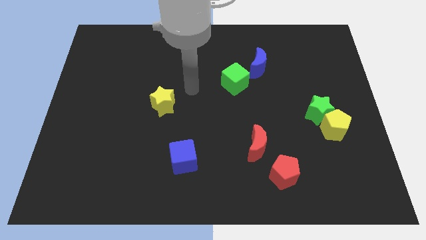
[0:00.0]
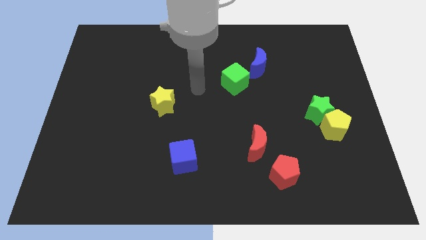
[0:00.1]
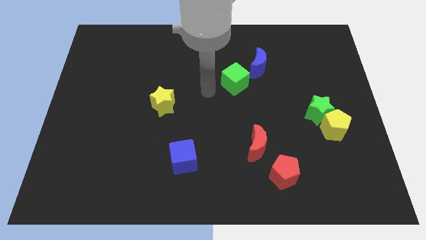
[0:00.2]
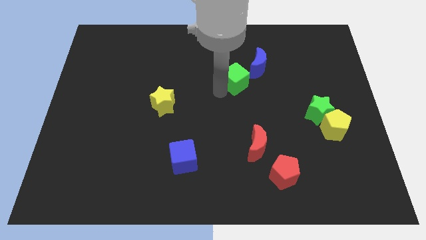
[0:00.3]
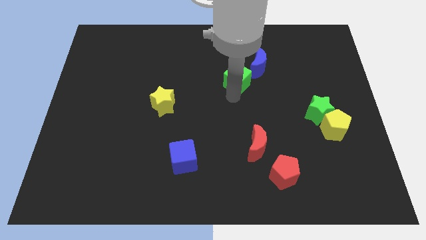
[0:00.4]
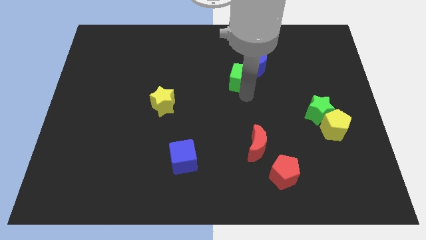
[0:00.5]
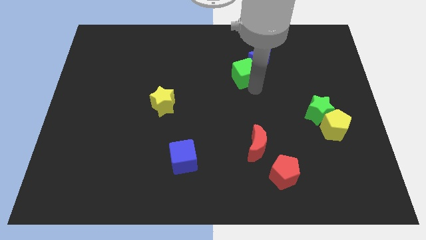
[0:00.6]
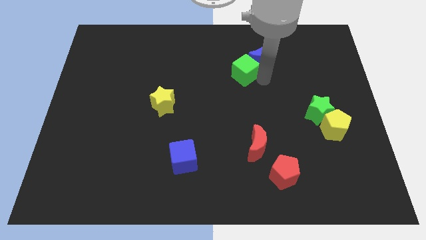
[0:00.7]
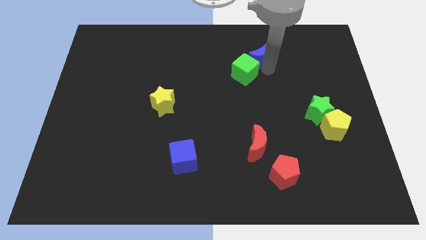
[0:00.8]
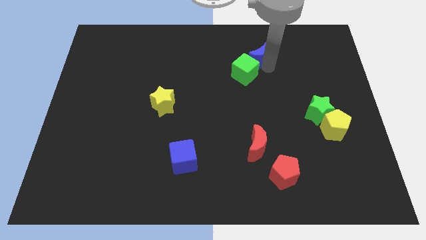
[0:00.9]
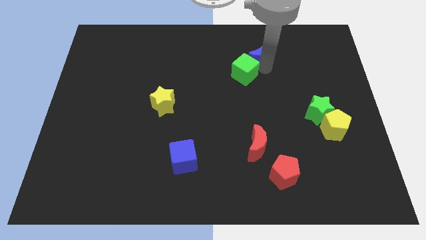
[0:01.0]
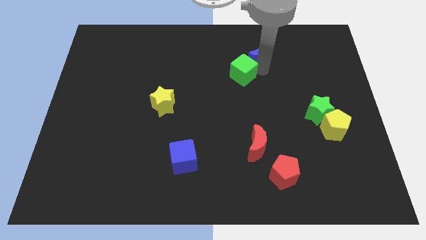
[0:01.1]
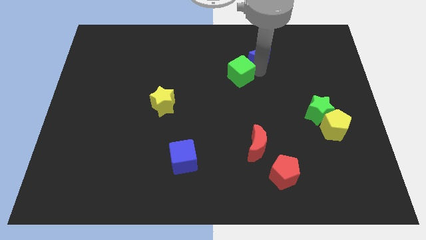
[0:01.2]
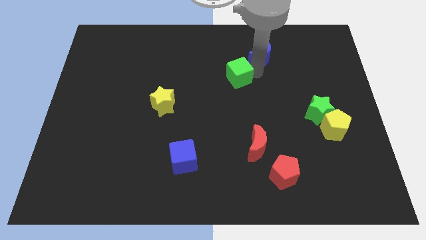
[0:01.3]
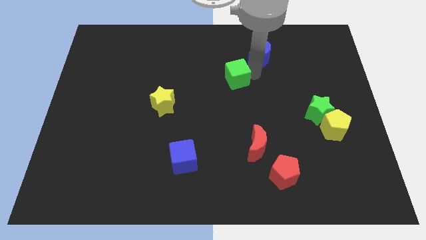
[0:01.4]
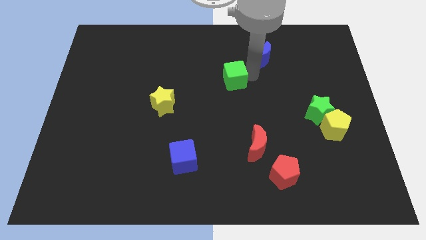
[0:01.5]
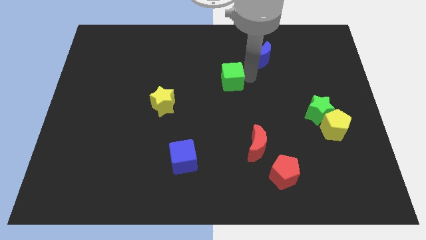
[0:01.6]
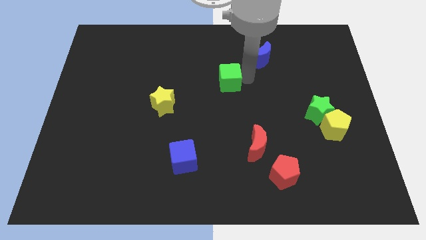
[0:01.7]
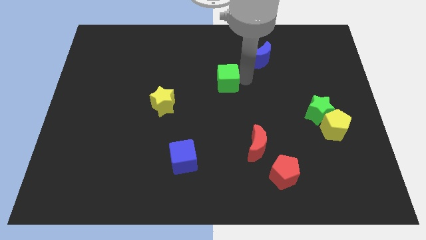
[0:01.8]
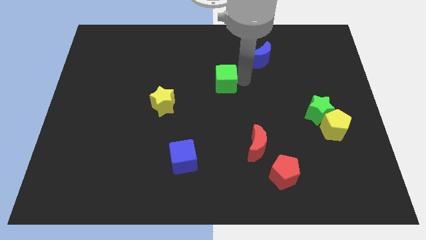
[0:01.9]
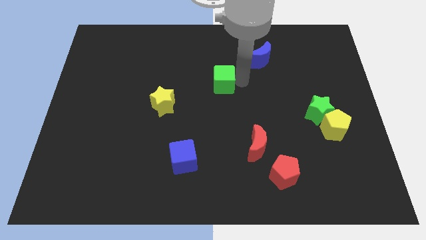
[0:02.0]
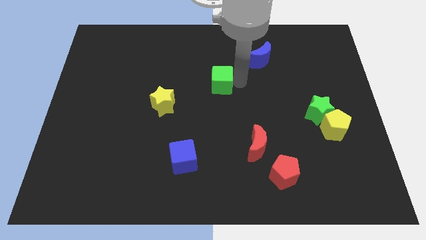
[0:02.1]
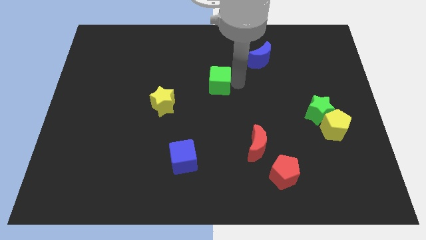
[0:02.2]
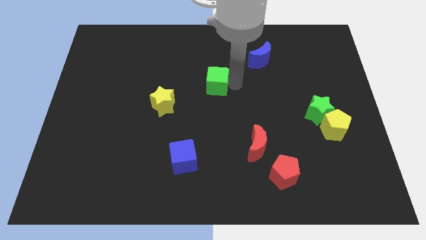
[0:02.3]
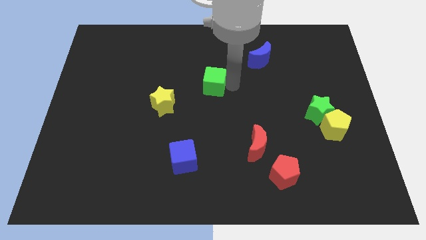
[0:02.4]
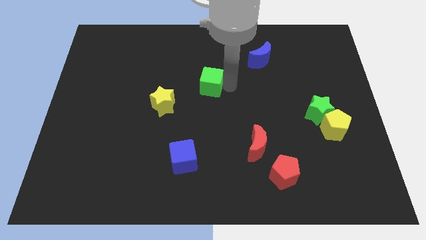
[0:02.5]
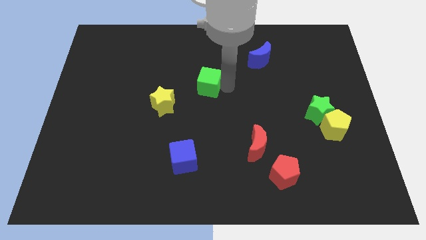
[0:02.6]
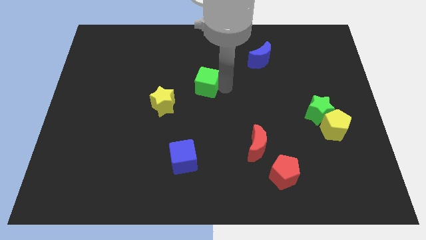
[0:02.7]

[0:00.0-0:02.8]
slightly slide the green cube to the left

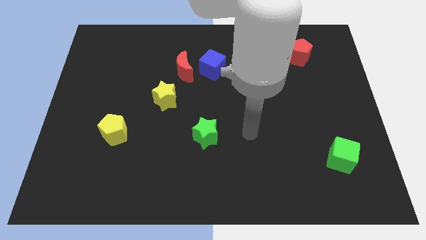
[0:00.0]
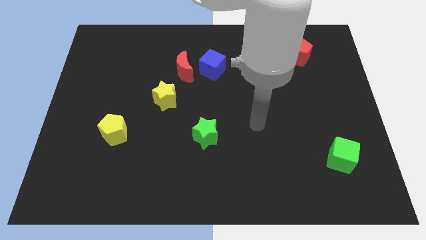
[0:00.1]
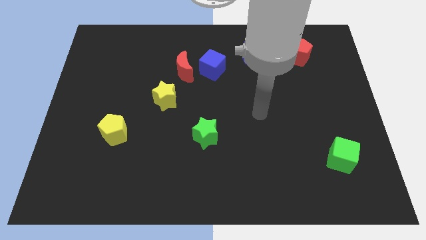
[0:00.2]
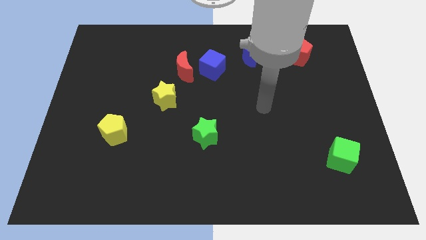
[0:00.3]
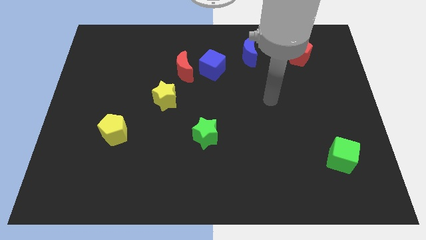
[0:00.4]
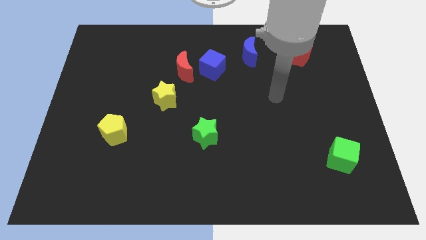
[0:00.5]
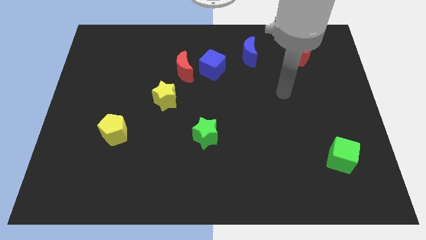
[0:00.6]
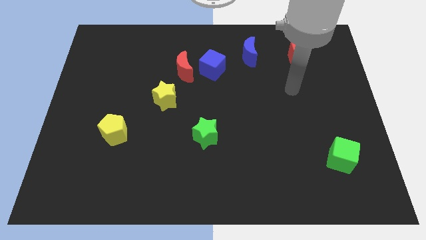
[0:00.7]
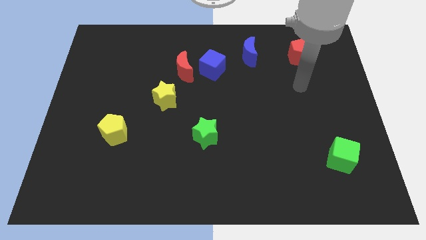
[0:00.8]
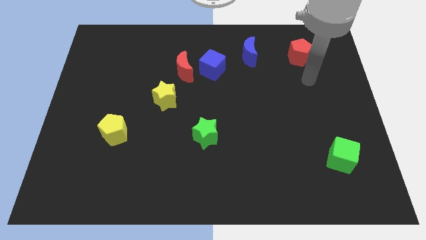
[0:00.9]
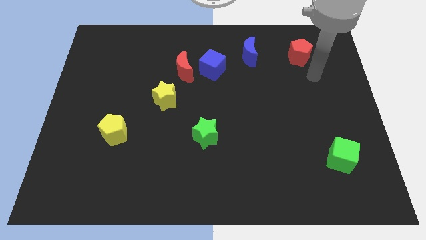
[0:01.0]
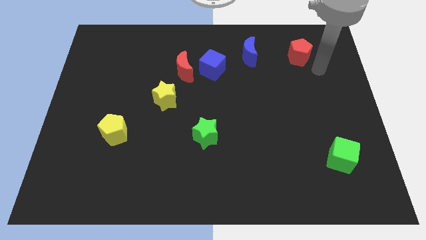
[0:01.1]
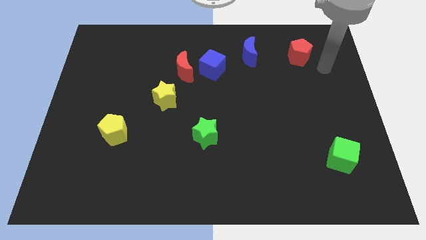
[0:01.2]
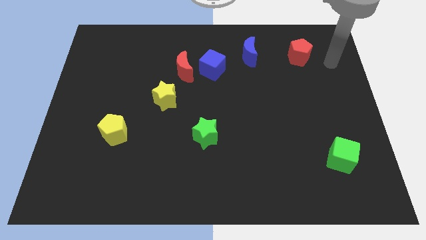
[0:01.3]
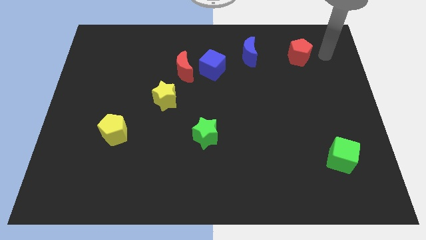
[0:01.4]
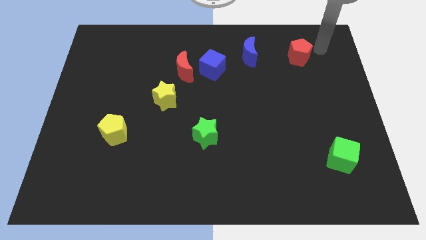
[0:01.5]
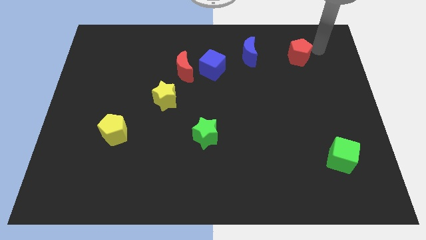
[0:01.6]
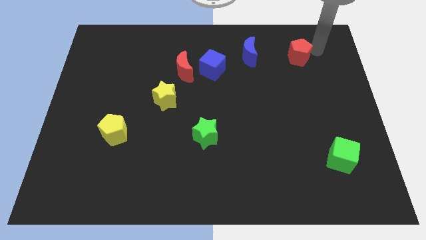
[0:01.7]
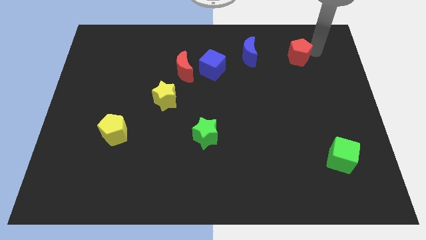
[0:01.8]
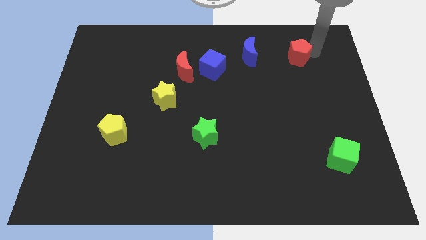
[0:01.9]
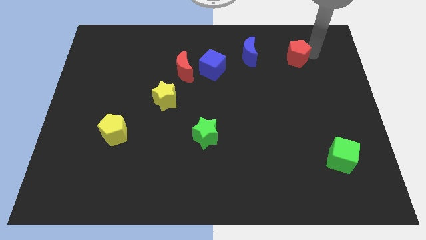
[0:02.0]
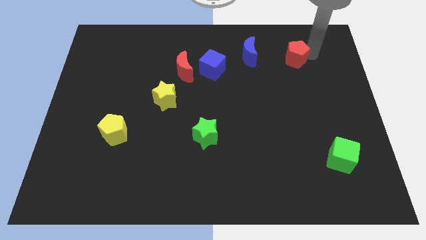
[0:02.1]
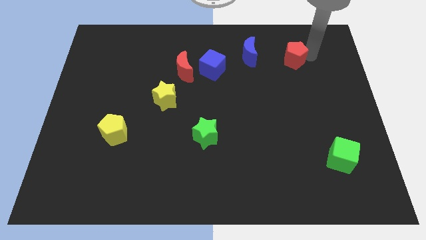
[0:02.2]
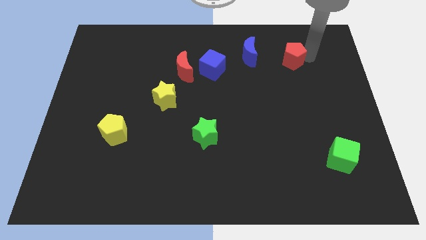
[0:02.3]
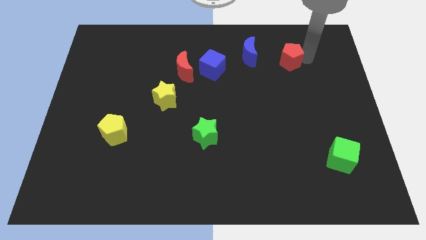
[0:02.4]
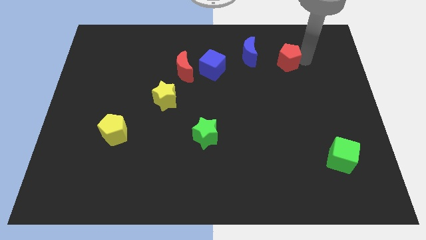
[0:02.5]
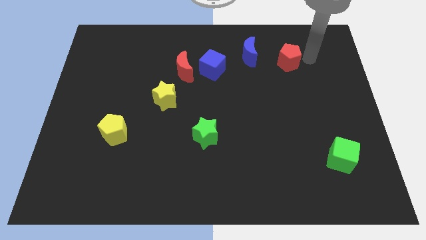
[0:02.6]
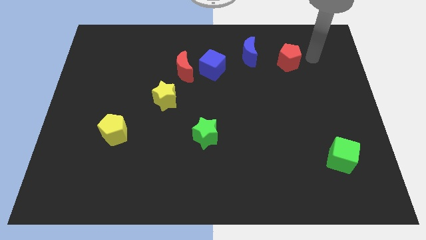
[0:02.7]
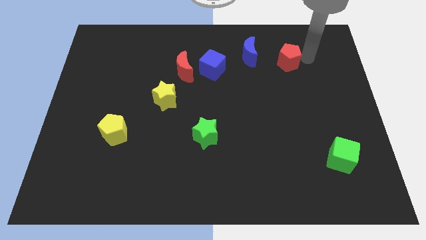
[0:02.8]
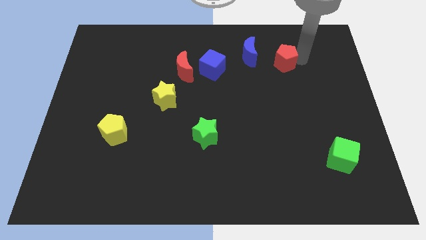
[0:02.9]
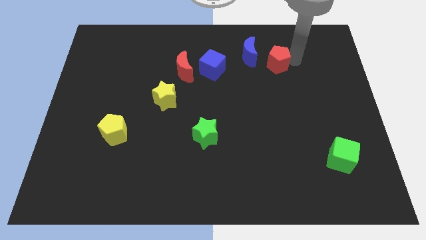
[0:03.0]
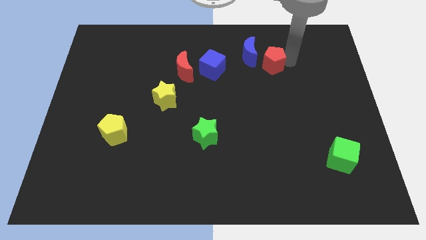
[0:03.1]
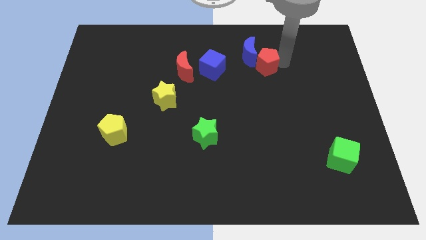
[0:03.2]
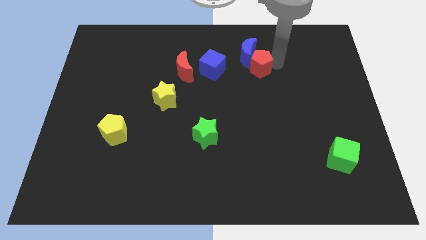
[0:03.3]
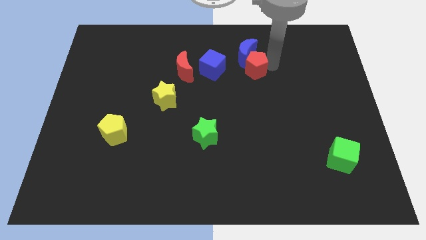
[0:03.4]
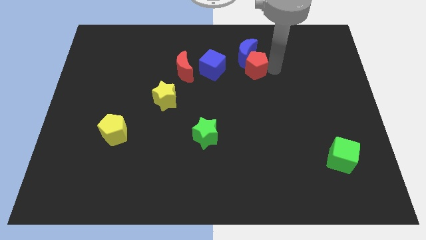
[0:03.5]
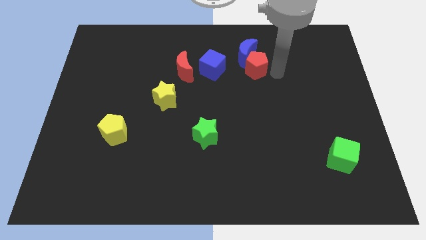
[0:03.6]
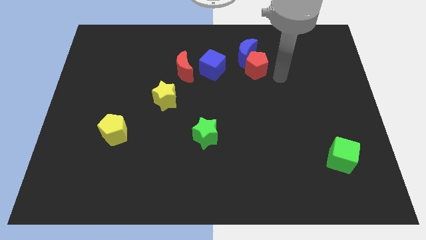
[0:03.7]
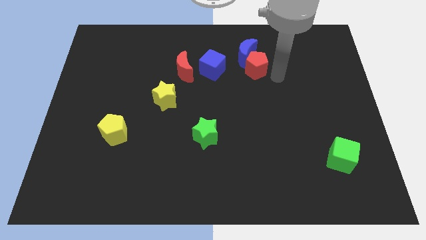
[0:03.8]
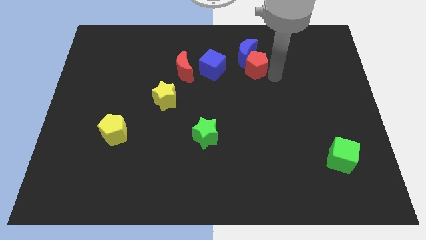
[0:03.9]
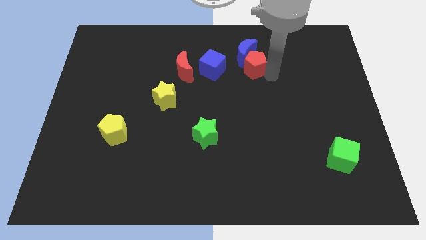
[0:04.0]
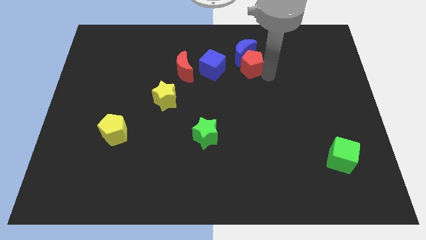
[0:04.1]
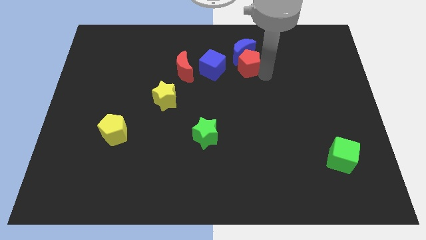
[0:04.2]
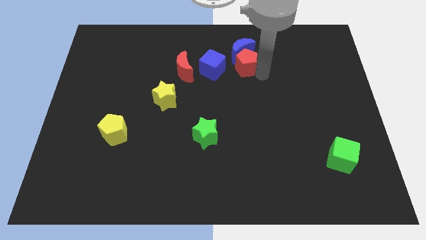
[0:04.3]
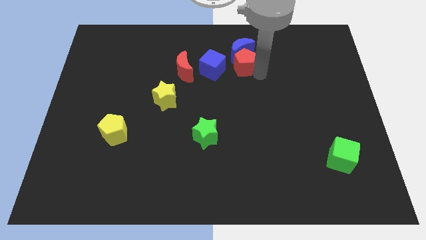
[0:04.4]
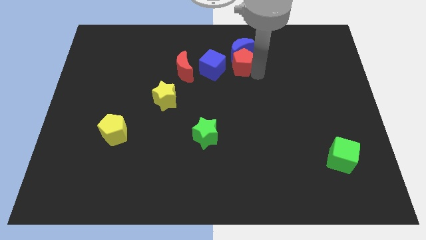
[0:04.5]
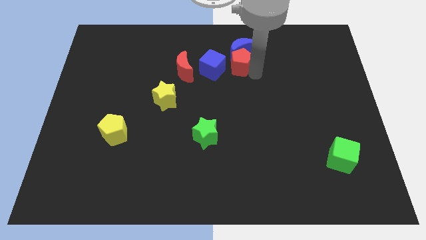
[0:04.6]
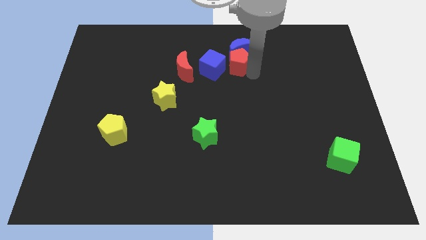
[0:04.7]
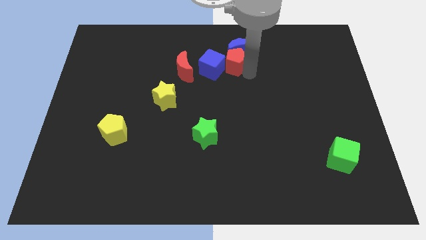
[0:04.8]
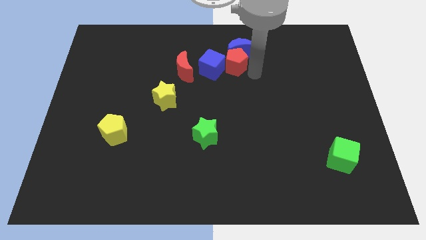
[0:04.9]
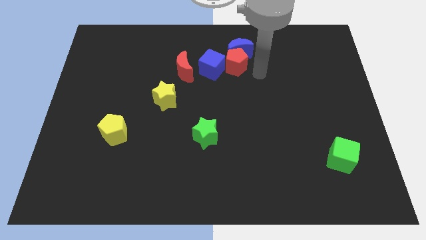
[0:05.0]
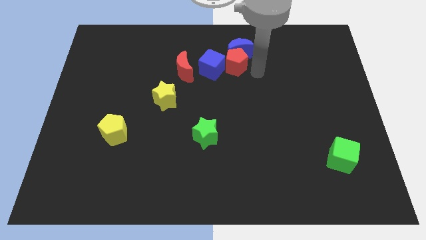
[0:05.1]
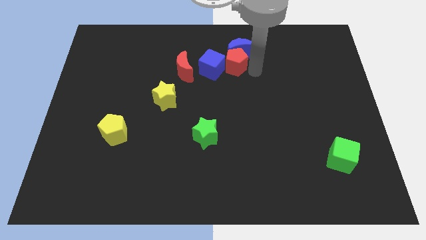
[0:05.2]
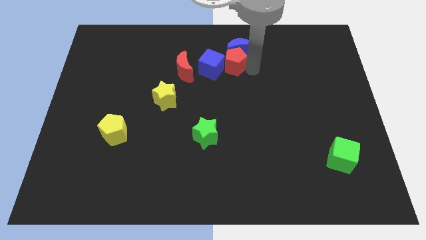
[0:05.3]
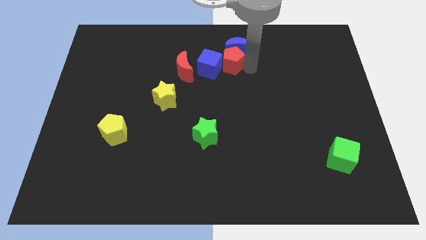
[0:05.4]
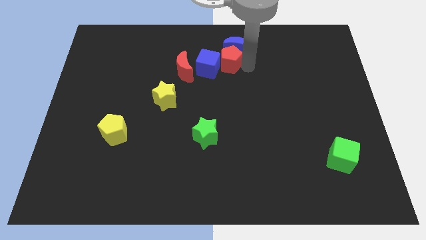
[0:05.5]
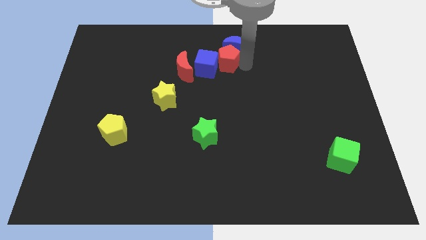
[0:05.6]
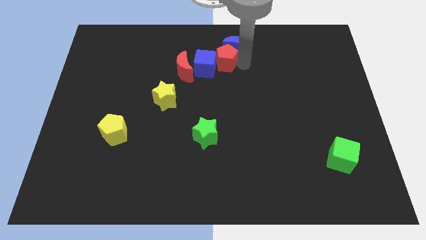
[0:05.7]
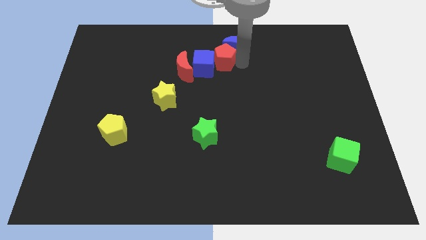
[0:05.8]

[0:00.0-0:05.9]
slide the red pentagon left
